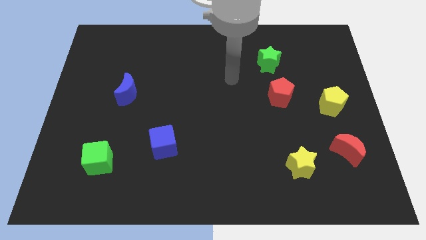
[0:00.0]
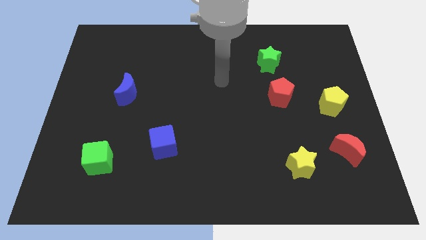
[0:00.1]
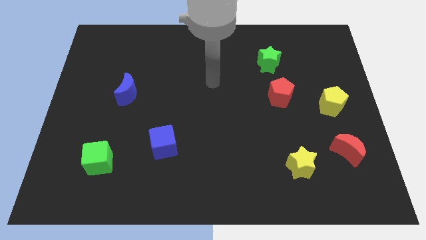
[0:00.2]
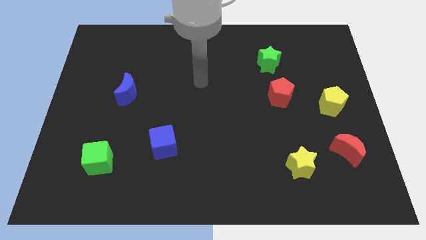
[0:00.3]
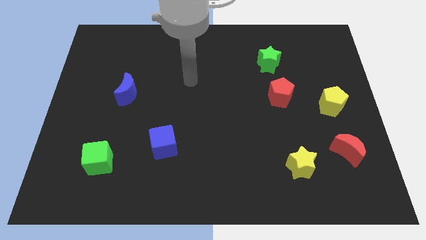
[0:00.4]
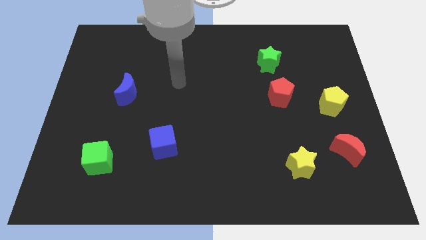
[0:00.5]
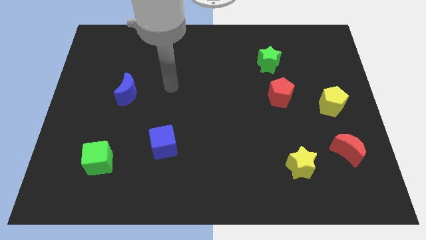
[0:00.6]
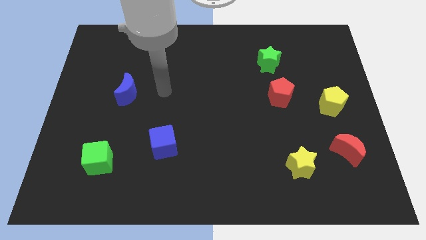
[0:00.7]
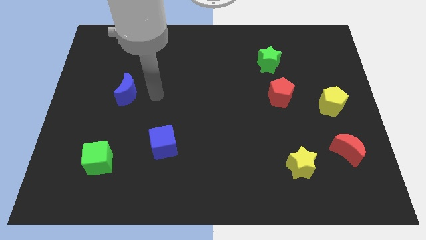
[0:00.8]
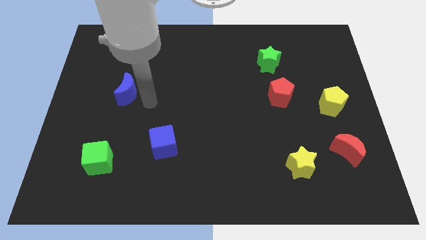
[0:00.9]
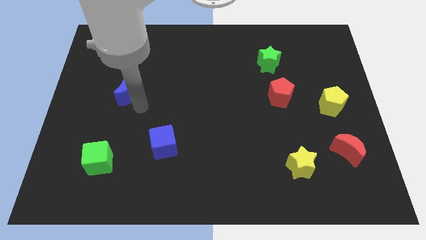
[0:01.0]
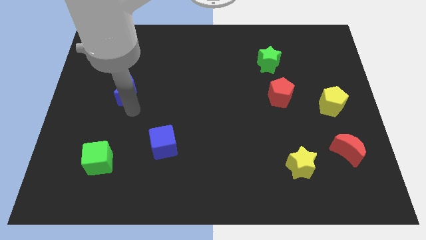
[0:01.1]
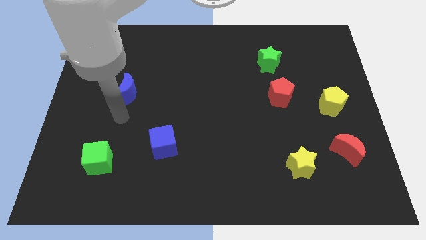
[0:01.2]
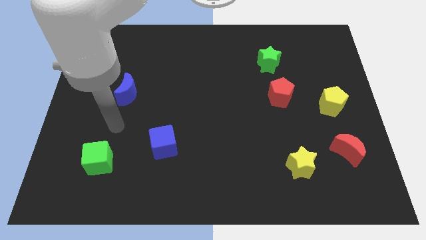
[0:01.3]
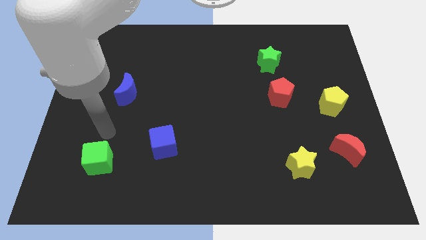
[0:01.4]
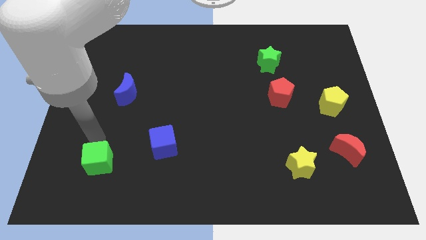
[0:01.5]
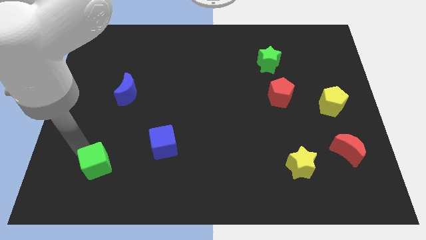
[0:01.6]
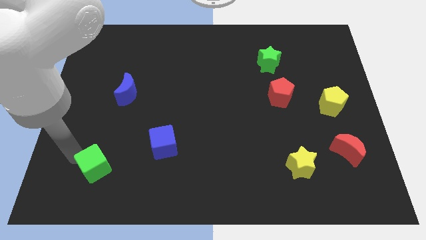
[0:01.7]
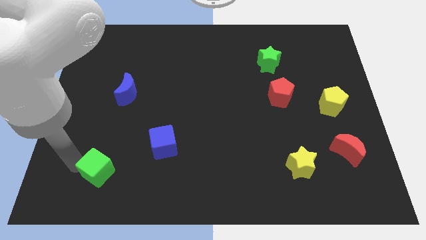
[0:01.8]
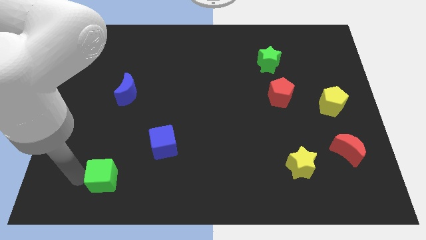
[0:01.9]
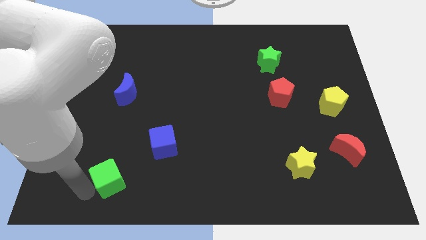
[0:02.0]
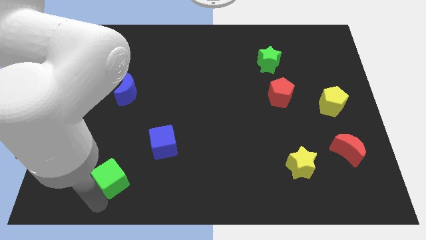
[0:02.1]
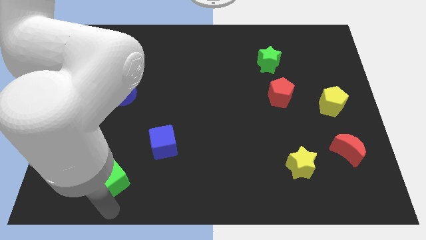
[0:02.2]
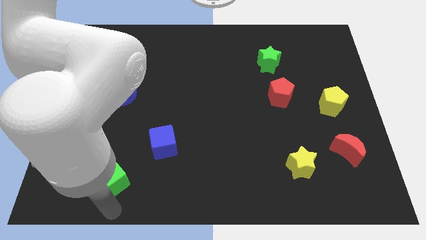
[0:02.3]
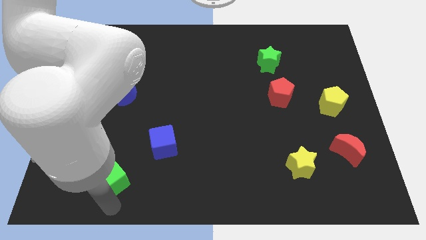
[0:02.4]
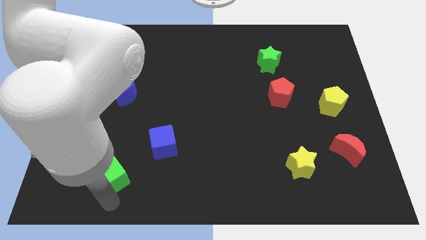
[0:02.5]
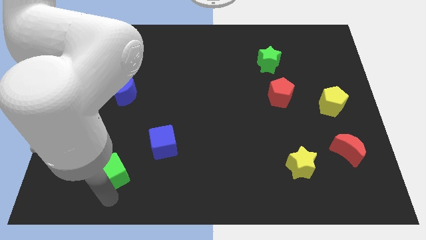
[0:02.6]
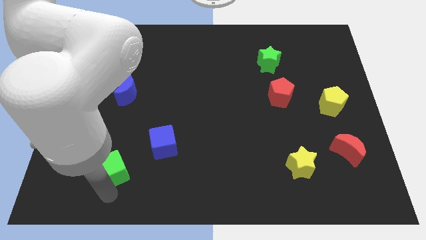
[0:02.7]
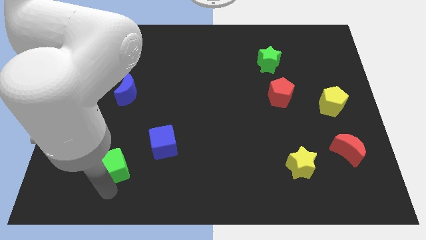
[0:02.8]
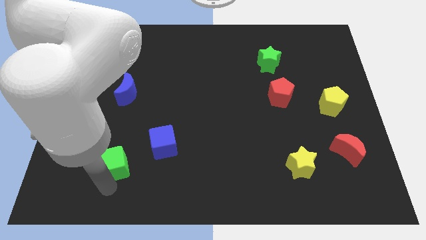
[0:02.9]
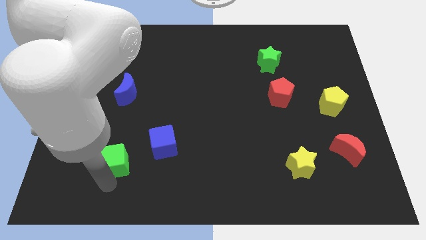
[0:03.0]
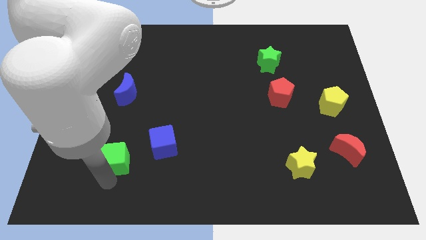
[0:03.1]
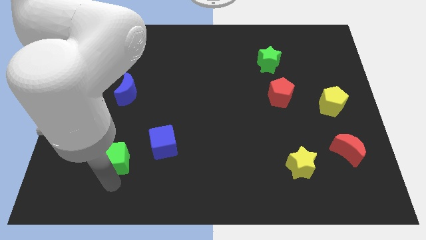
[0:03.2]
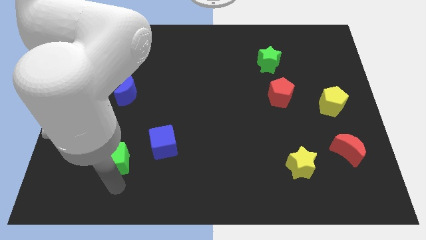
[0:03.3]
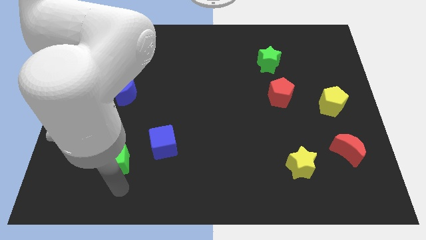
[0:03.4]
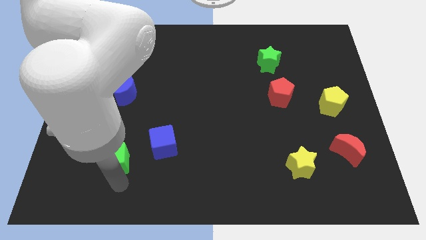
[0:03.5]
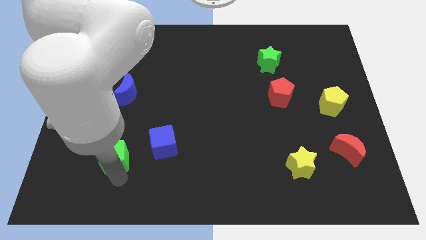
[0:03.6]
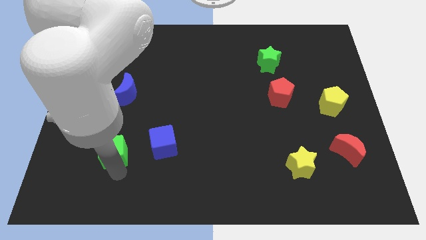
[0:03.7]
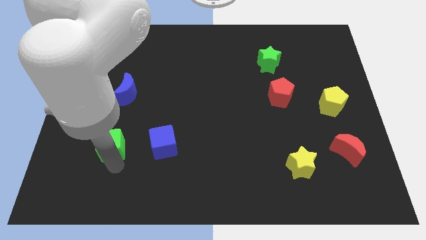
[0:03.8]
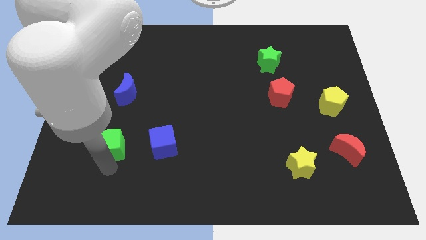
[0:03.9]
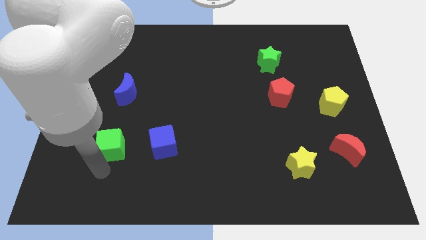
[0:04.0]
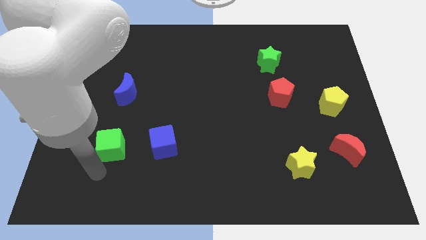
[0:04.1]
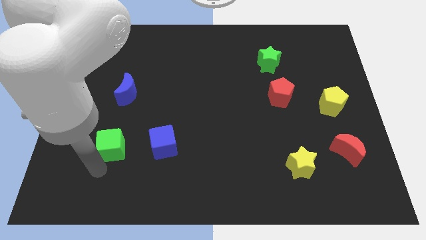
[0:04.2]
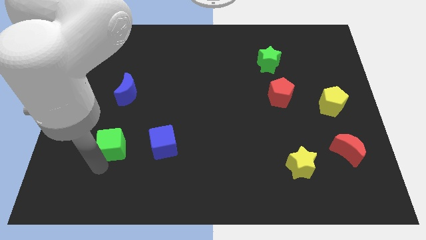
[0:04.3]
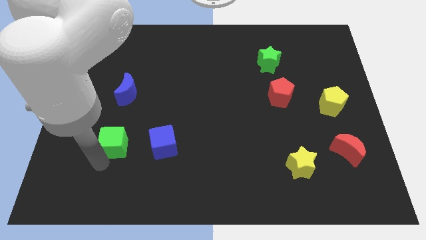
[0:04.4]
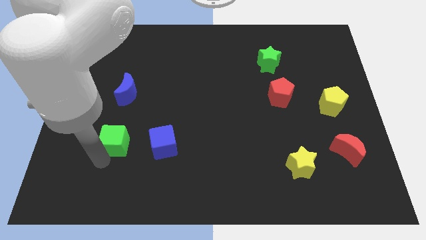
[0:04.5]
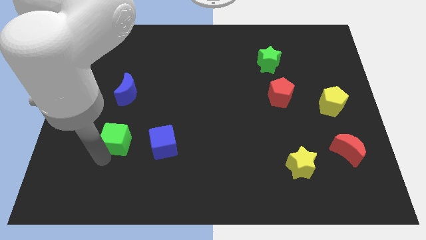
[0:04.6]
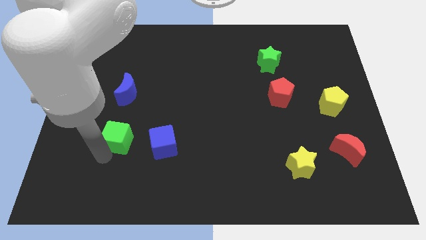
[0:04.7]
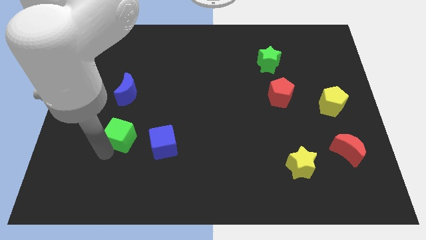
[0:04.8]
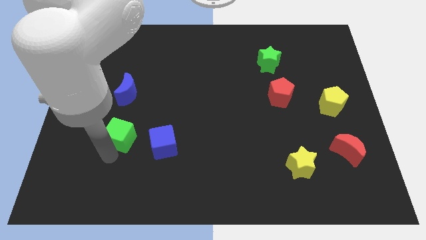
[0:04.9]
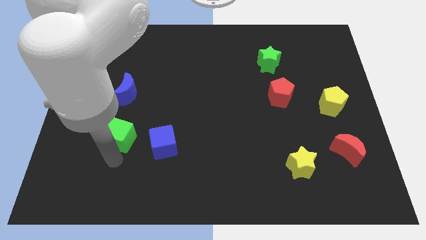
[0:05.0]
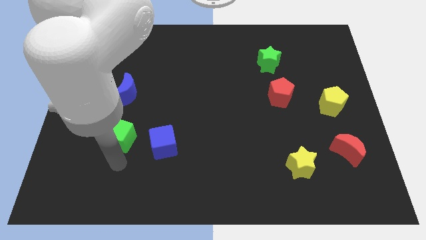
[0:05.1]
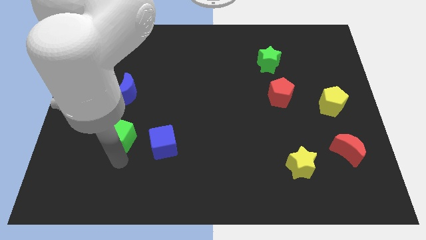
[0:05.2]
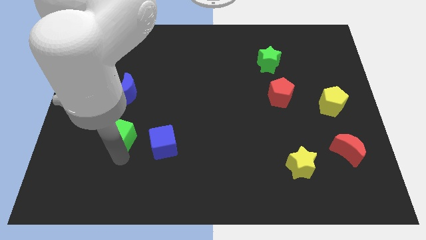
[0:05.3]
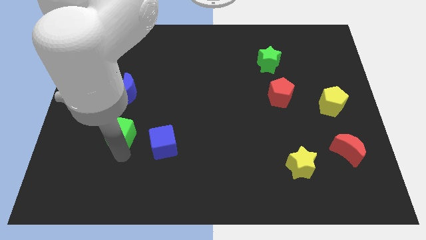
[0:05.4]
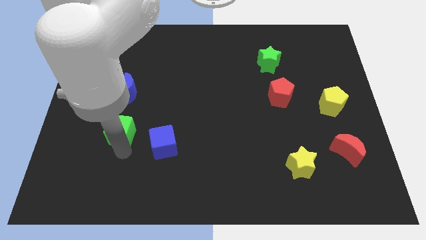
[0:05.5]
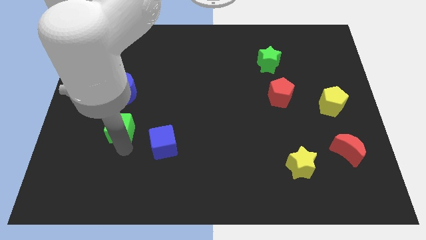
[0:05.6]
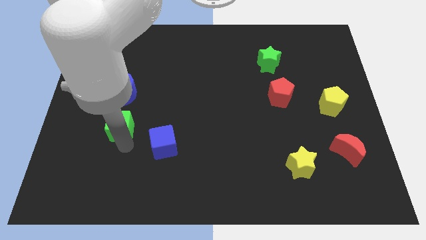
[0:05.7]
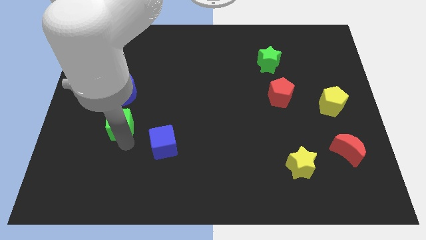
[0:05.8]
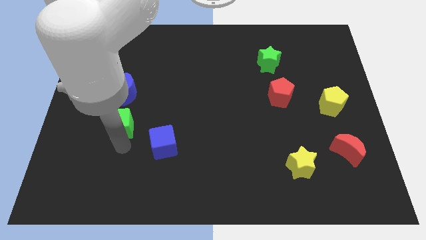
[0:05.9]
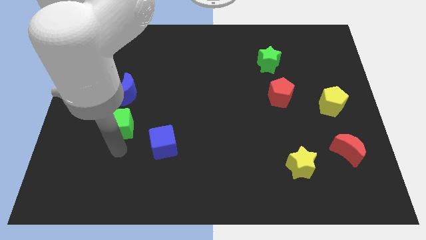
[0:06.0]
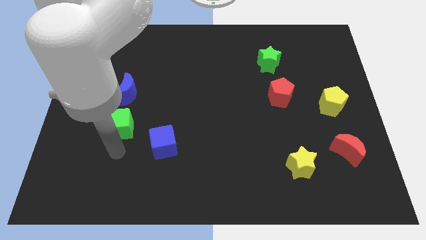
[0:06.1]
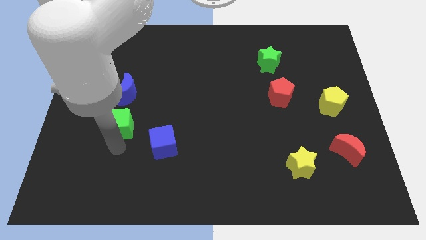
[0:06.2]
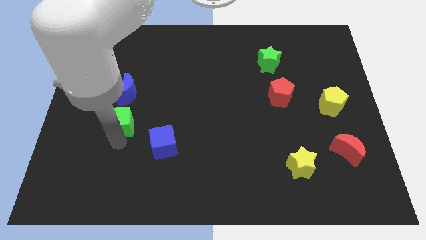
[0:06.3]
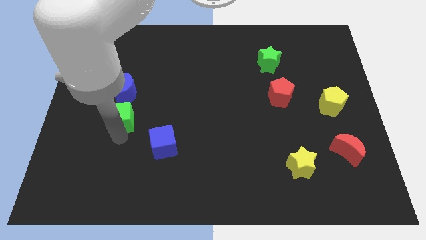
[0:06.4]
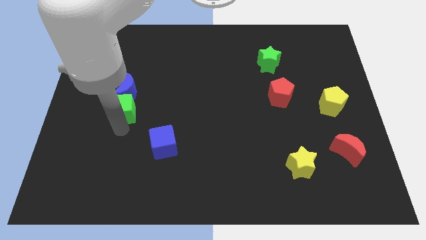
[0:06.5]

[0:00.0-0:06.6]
put the green cube to the blue moon

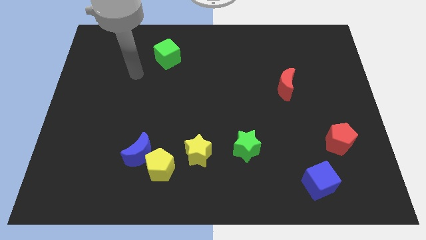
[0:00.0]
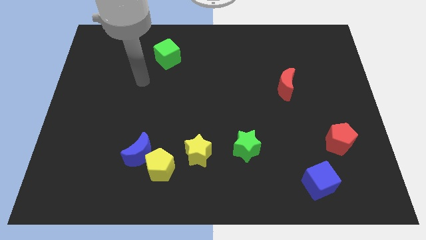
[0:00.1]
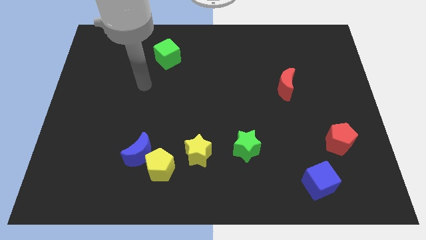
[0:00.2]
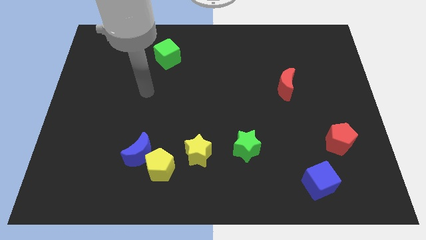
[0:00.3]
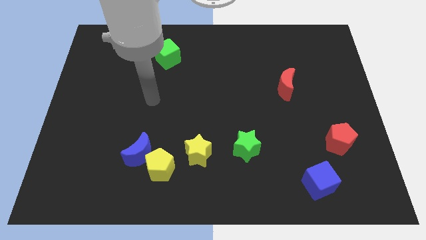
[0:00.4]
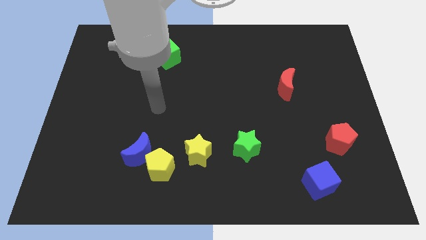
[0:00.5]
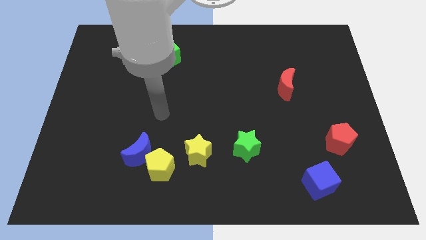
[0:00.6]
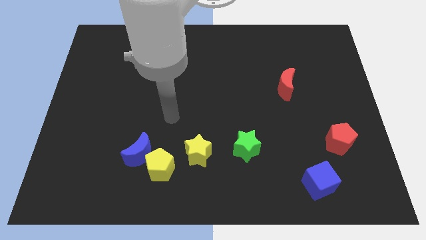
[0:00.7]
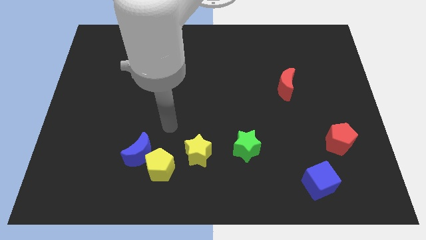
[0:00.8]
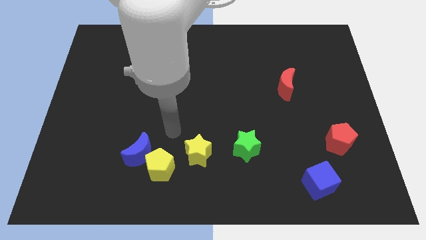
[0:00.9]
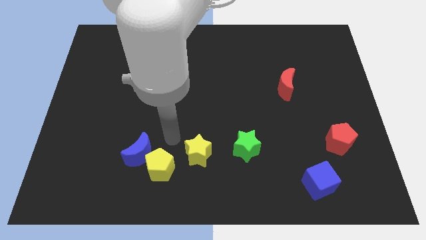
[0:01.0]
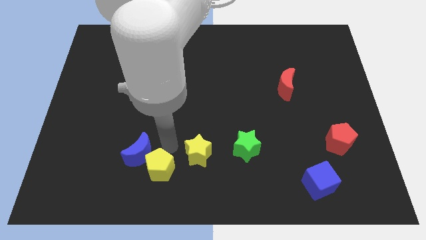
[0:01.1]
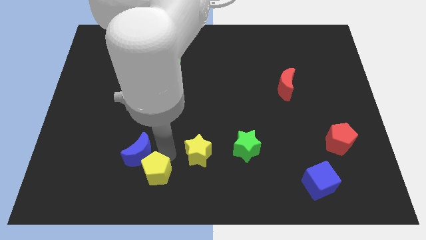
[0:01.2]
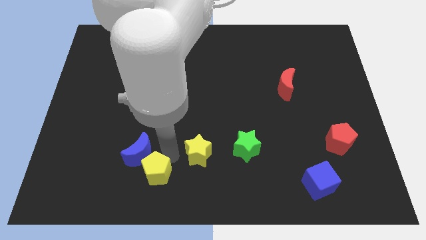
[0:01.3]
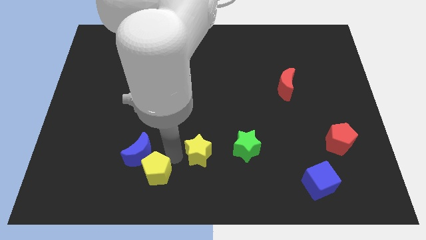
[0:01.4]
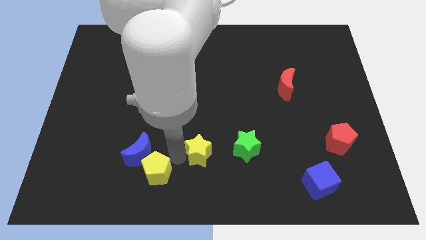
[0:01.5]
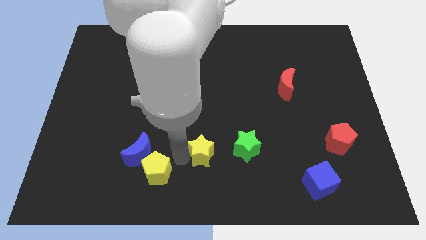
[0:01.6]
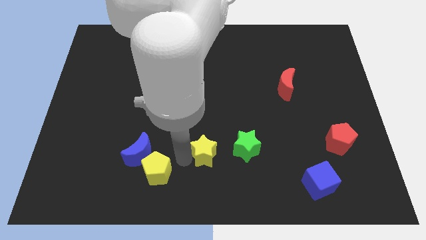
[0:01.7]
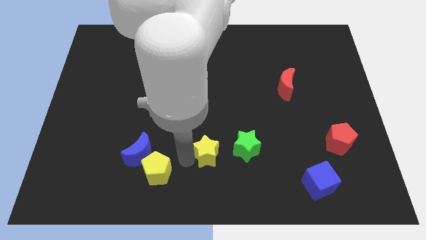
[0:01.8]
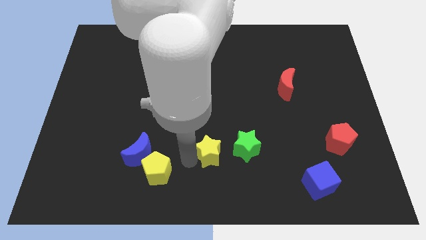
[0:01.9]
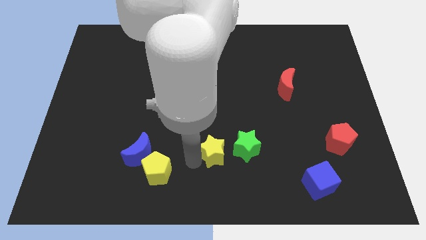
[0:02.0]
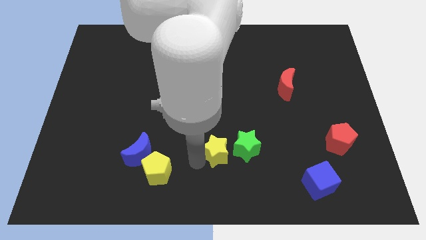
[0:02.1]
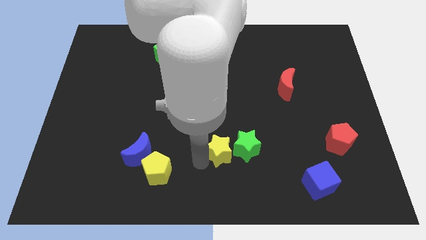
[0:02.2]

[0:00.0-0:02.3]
push the yellow star next to the green star
